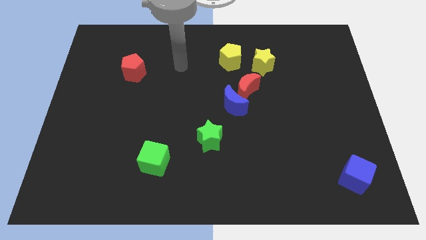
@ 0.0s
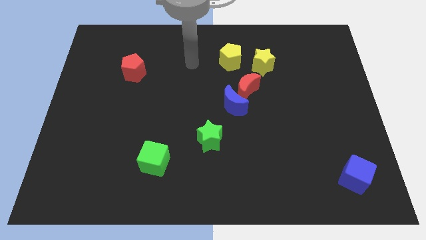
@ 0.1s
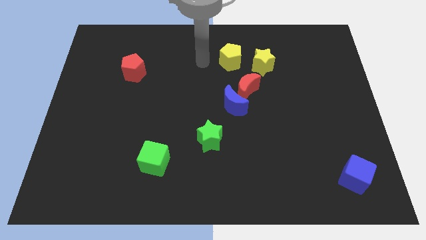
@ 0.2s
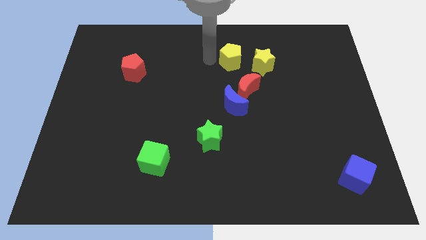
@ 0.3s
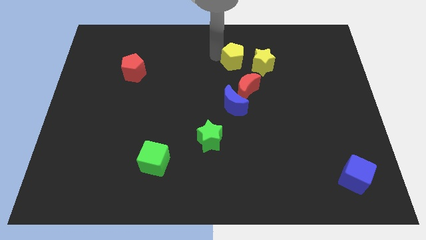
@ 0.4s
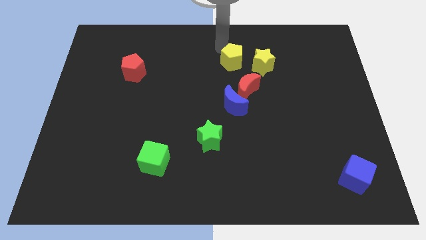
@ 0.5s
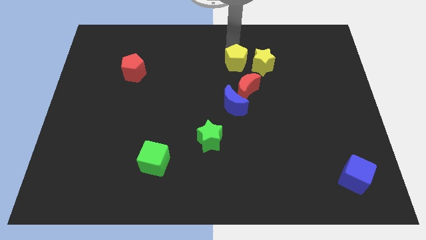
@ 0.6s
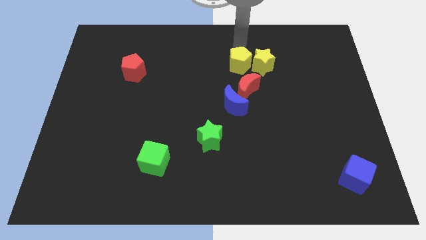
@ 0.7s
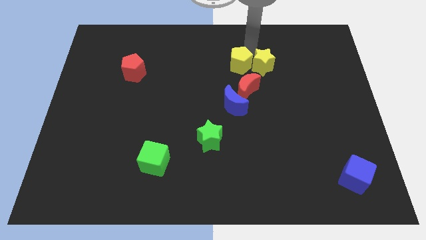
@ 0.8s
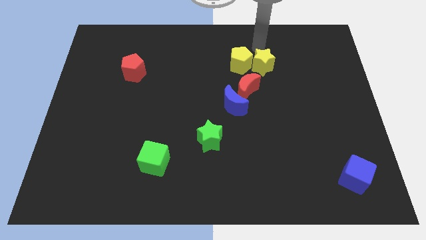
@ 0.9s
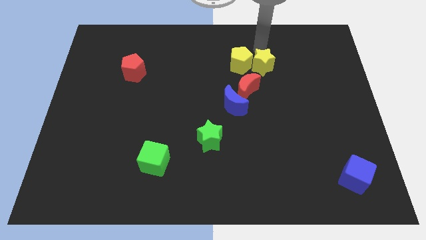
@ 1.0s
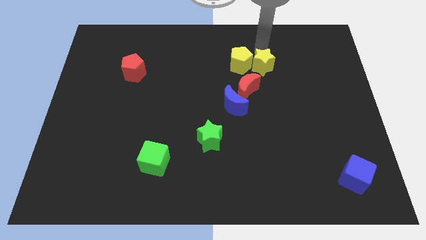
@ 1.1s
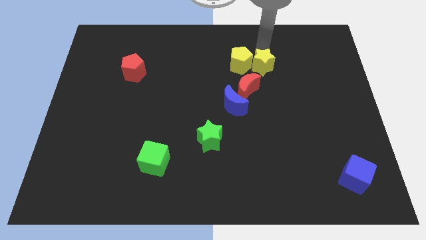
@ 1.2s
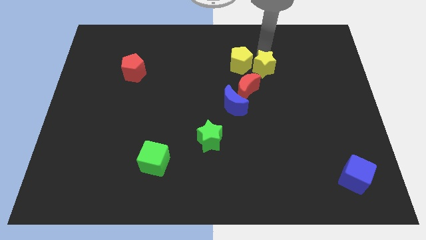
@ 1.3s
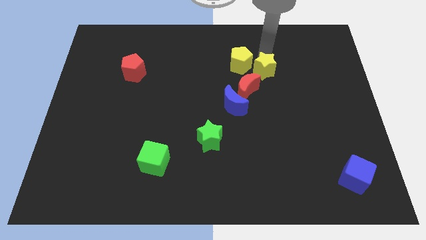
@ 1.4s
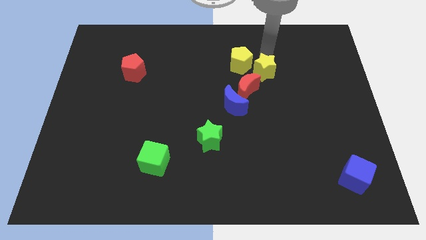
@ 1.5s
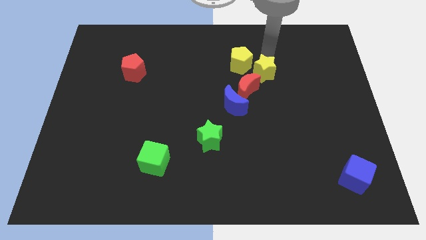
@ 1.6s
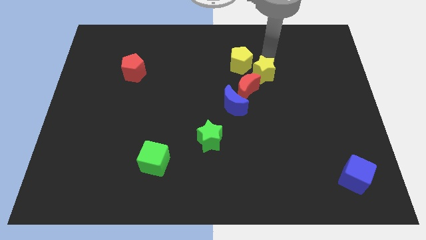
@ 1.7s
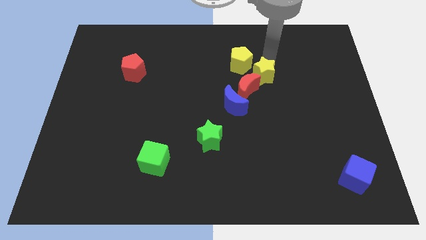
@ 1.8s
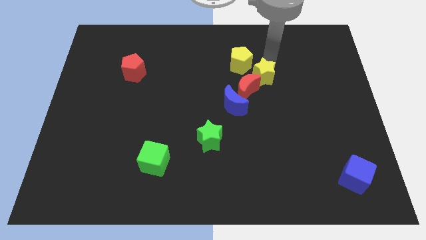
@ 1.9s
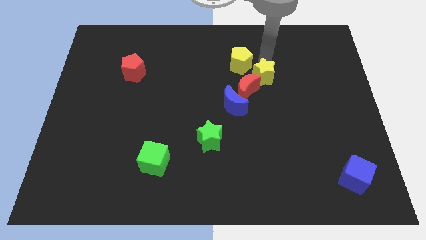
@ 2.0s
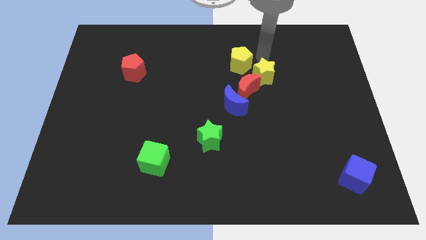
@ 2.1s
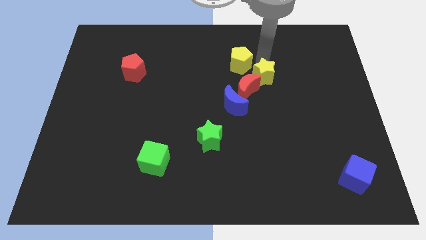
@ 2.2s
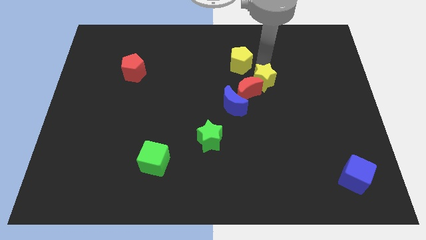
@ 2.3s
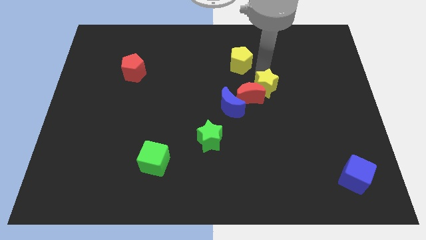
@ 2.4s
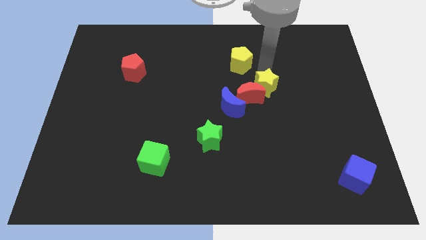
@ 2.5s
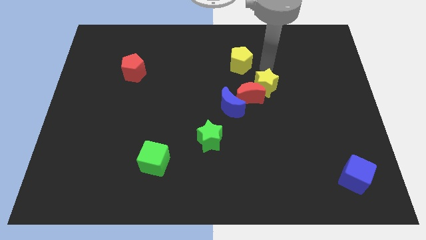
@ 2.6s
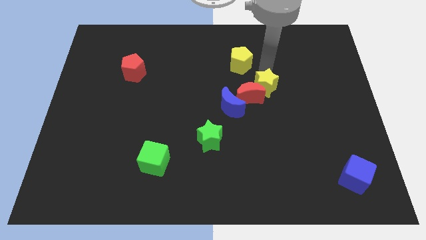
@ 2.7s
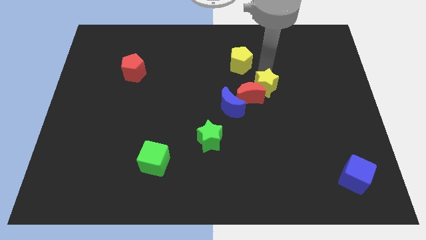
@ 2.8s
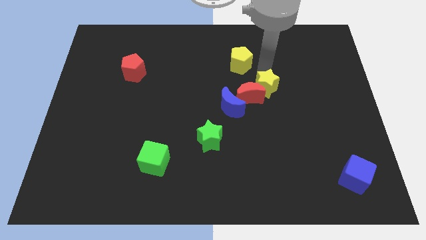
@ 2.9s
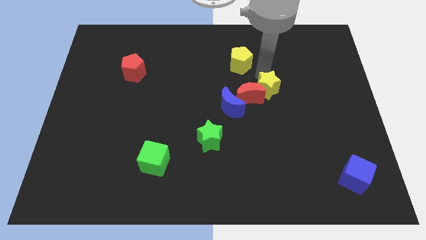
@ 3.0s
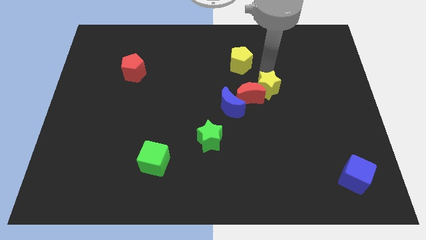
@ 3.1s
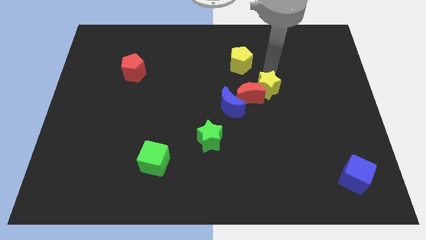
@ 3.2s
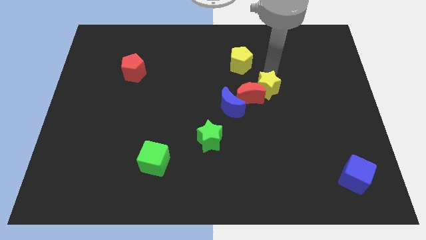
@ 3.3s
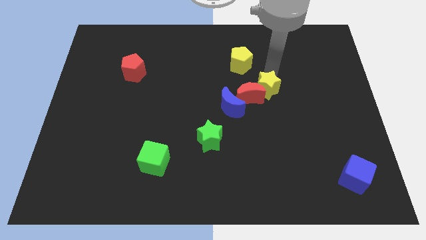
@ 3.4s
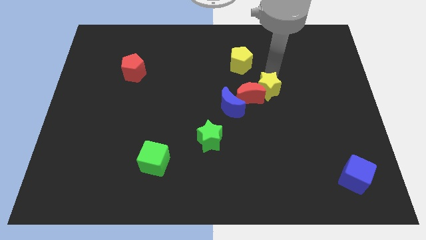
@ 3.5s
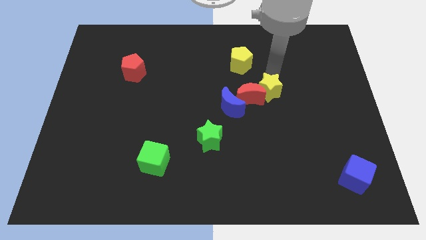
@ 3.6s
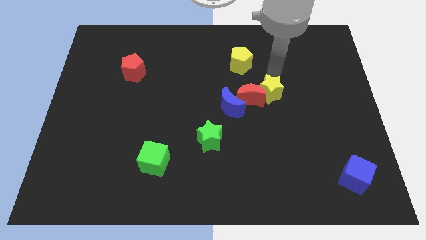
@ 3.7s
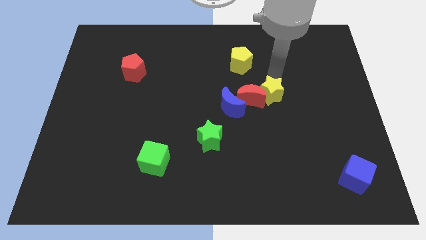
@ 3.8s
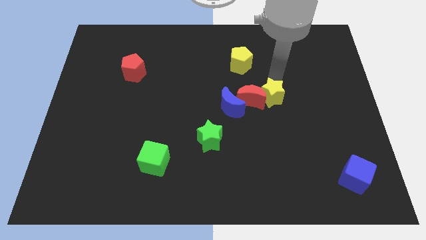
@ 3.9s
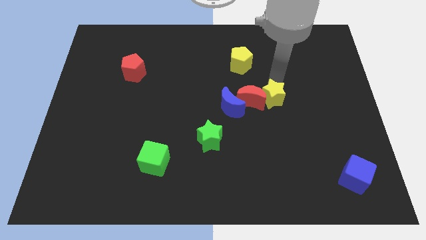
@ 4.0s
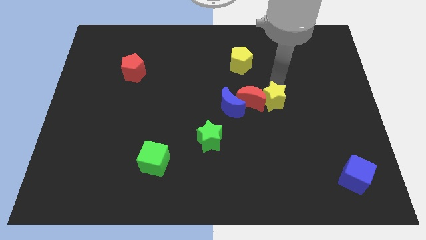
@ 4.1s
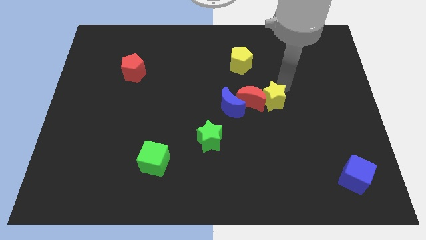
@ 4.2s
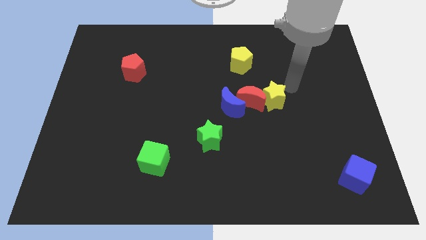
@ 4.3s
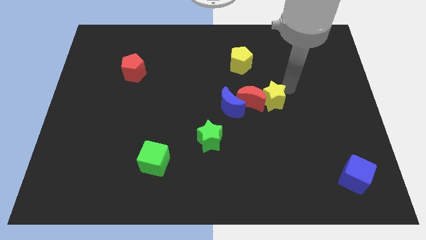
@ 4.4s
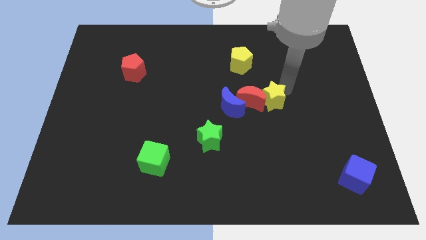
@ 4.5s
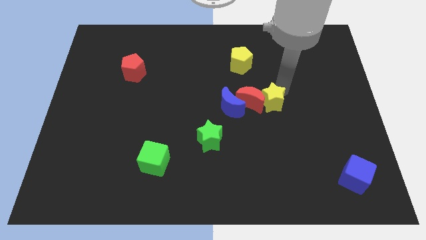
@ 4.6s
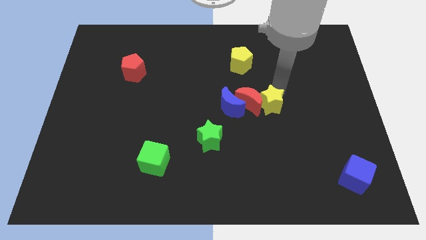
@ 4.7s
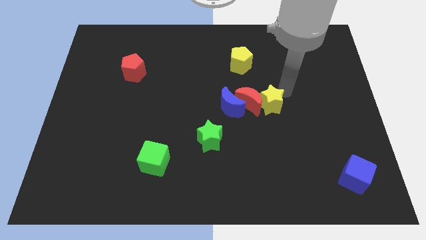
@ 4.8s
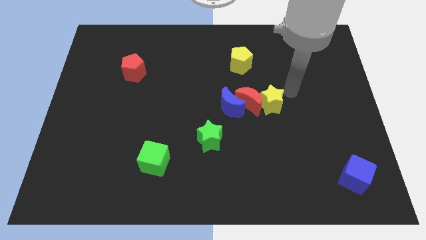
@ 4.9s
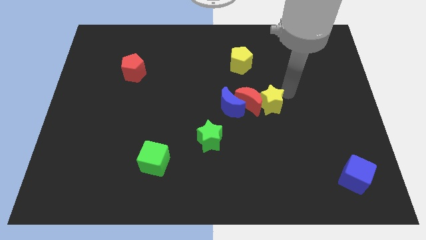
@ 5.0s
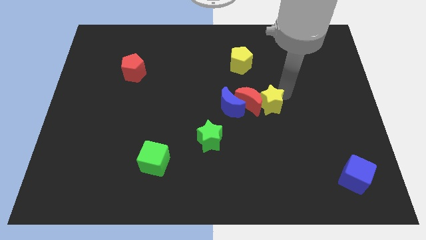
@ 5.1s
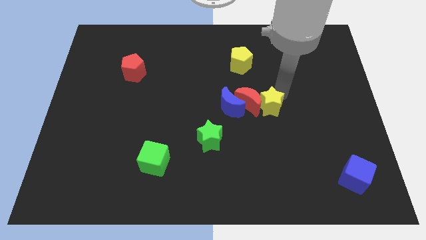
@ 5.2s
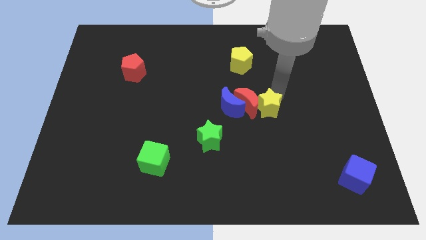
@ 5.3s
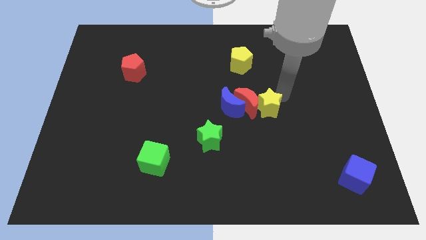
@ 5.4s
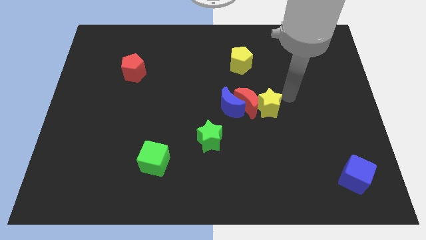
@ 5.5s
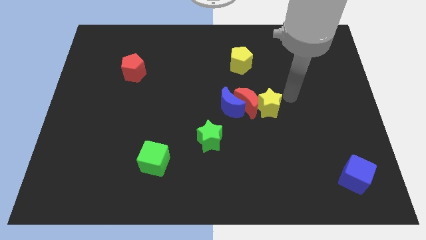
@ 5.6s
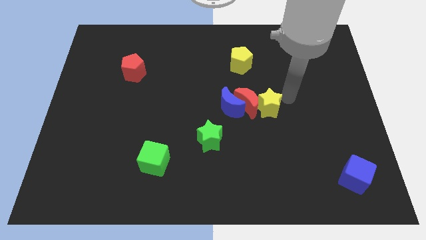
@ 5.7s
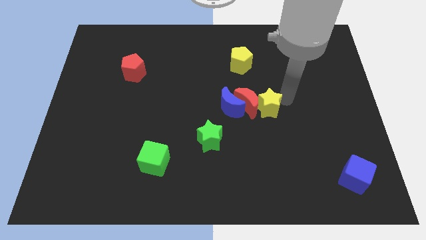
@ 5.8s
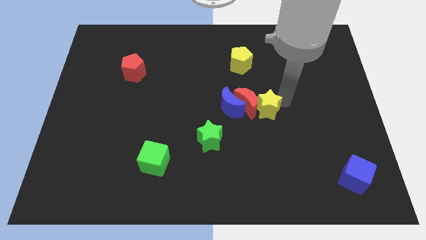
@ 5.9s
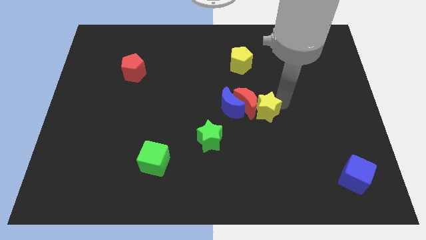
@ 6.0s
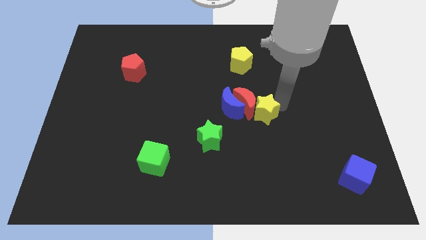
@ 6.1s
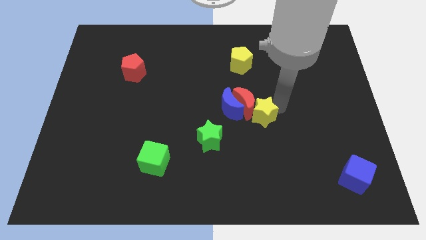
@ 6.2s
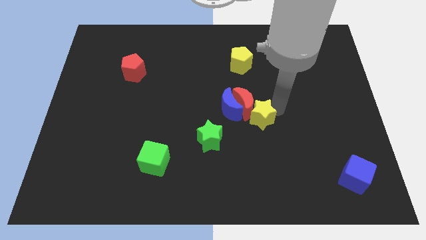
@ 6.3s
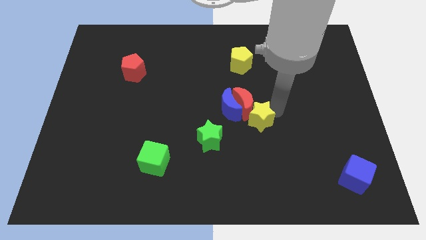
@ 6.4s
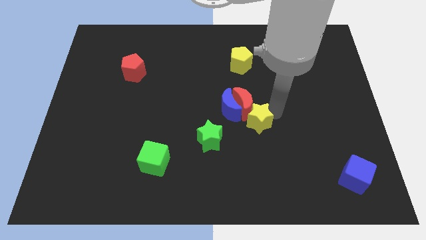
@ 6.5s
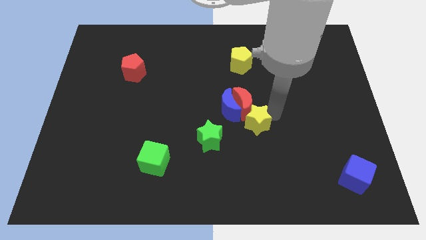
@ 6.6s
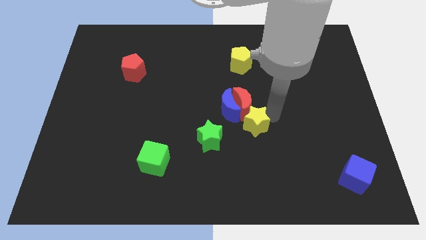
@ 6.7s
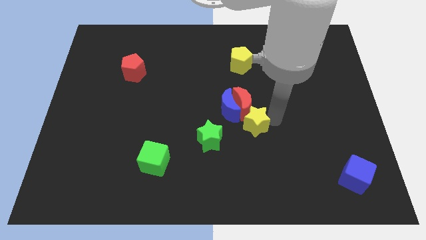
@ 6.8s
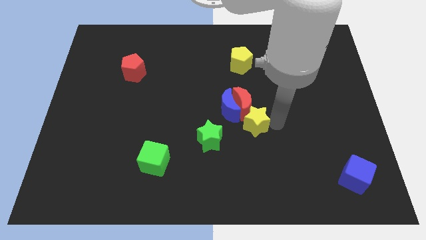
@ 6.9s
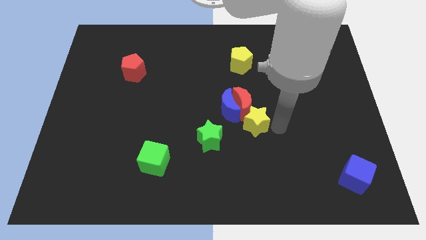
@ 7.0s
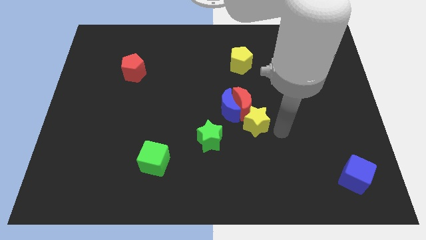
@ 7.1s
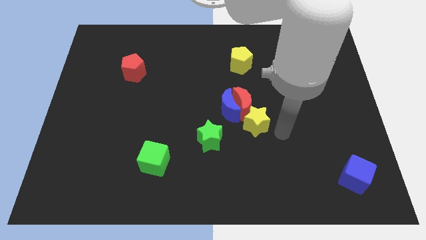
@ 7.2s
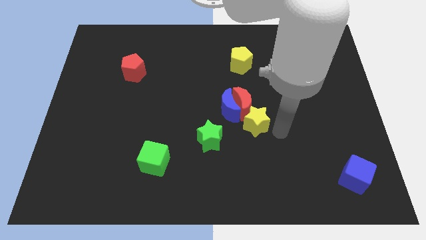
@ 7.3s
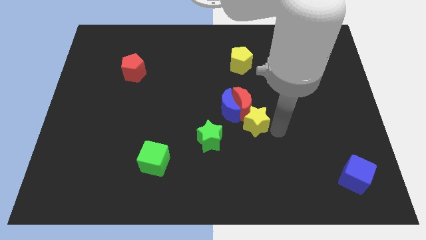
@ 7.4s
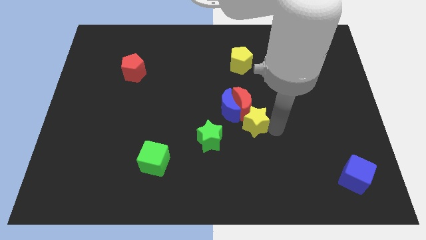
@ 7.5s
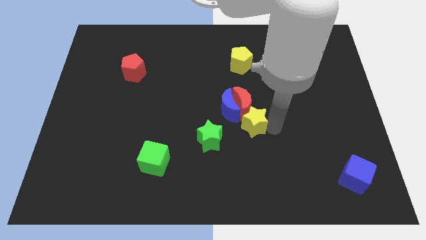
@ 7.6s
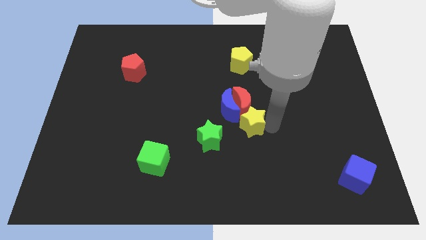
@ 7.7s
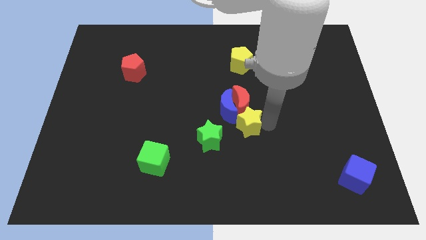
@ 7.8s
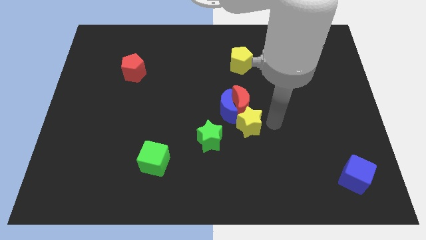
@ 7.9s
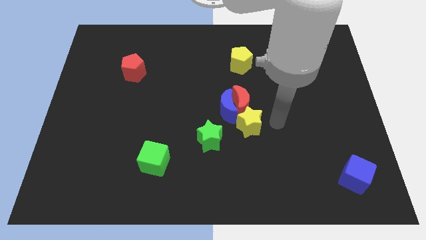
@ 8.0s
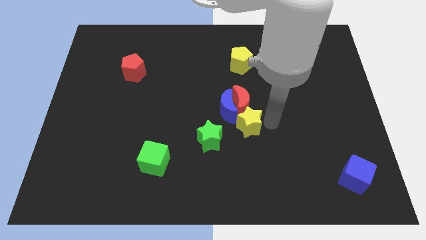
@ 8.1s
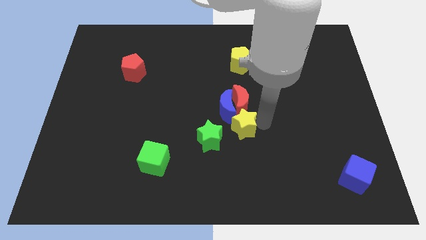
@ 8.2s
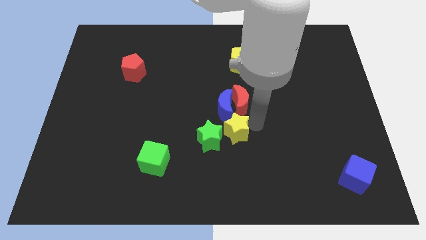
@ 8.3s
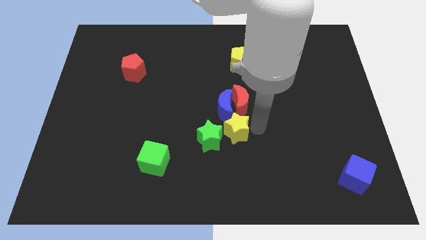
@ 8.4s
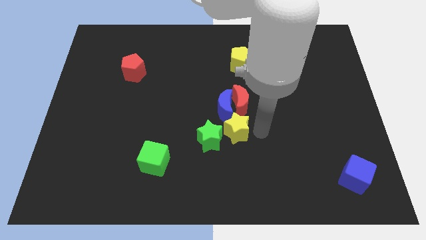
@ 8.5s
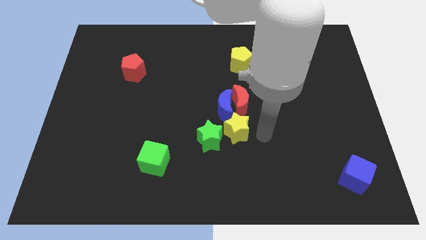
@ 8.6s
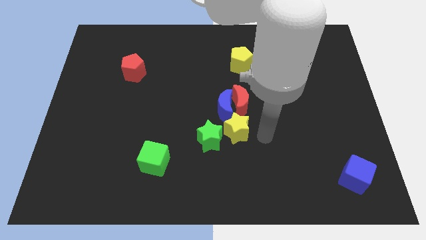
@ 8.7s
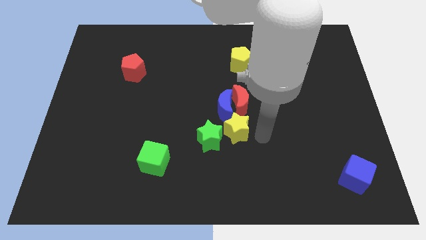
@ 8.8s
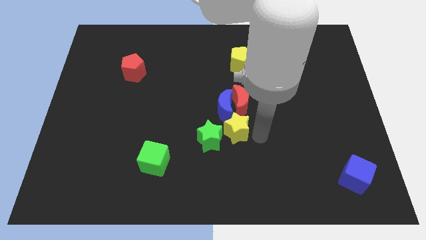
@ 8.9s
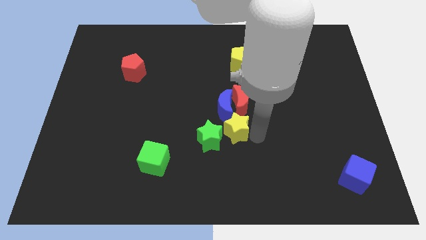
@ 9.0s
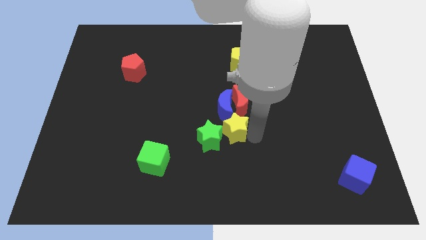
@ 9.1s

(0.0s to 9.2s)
push the yellow star to the green star
